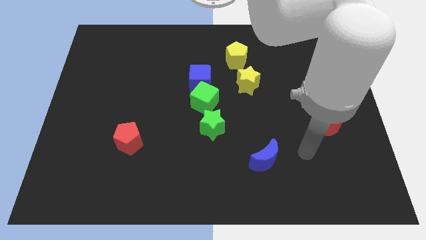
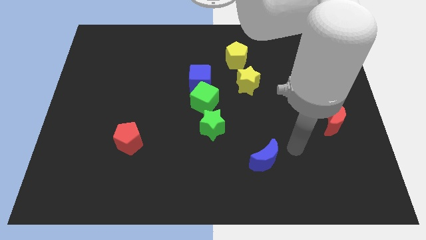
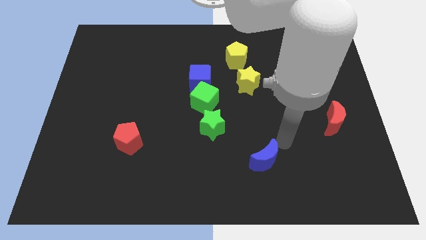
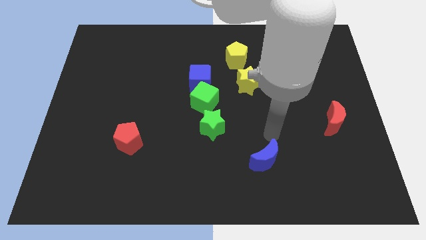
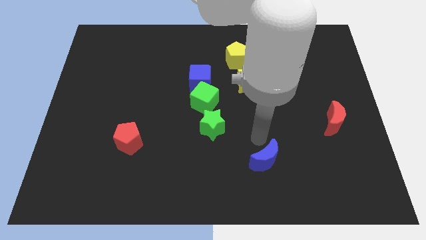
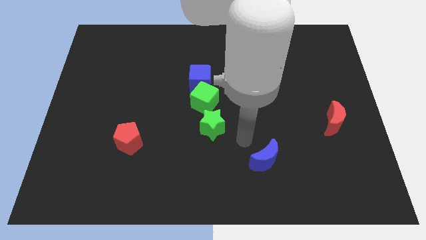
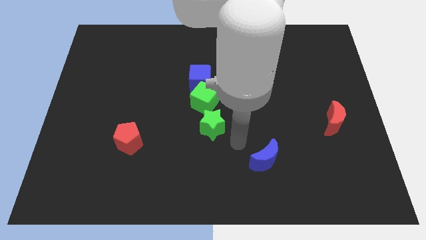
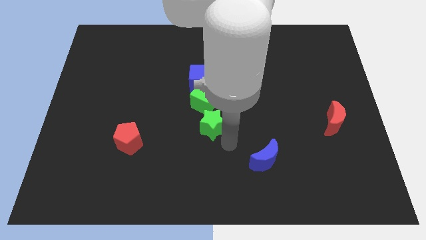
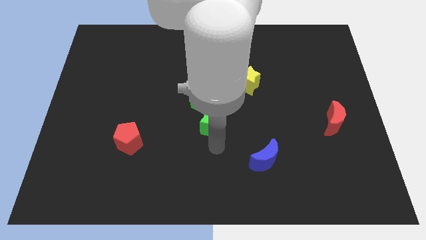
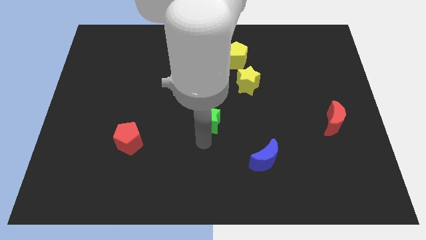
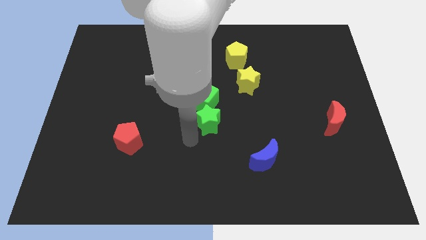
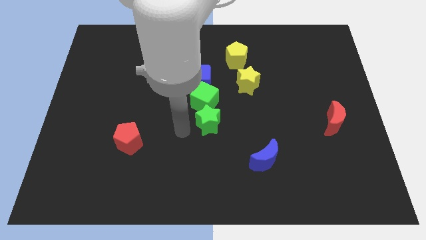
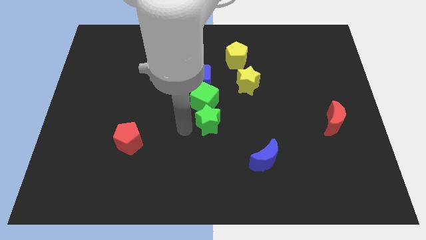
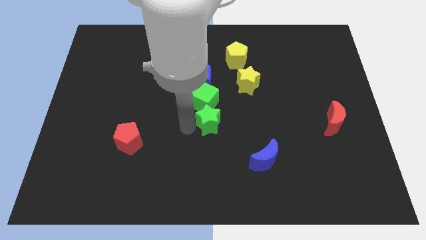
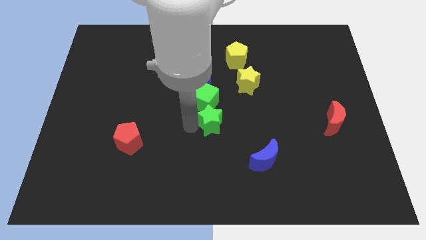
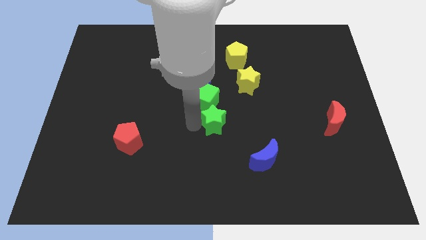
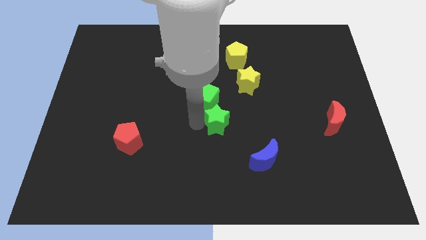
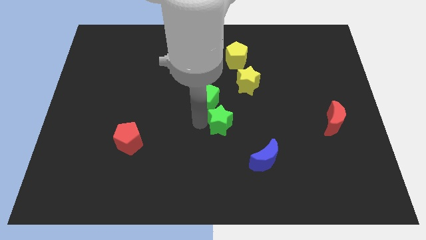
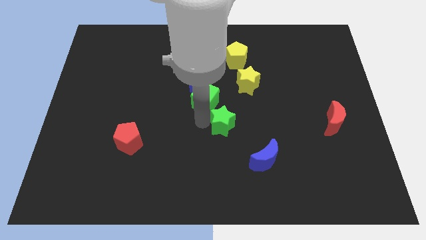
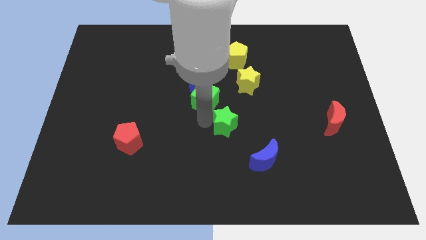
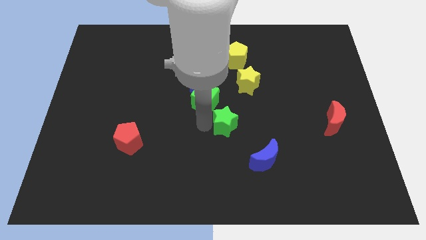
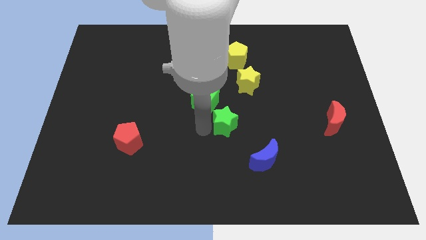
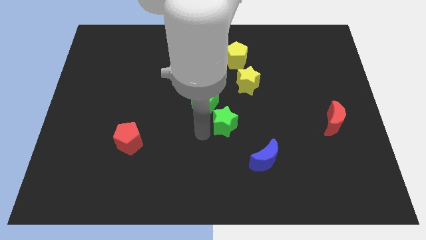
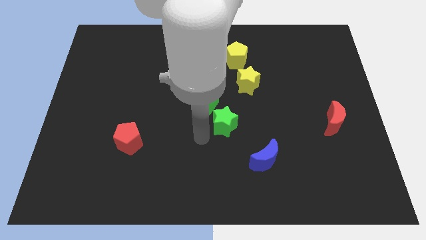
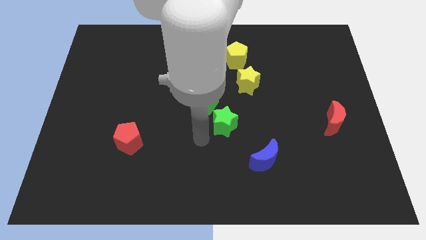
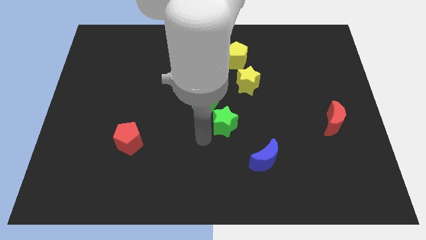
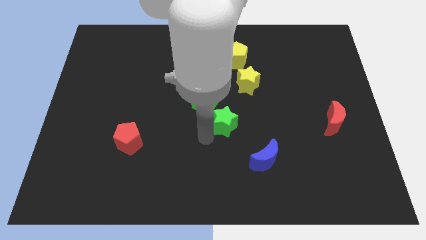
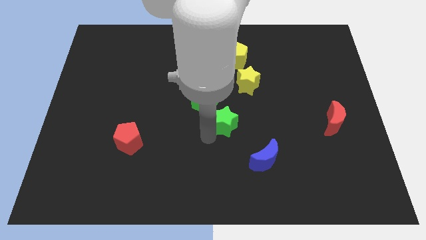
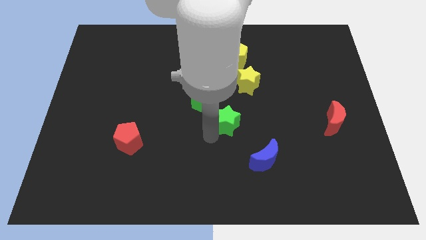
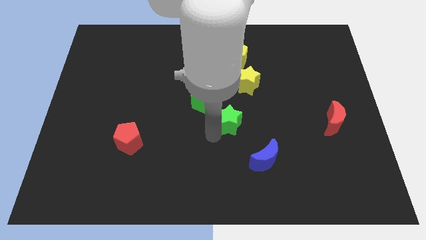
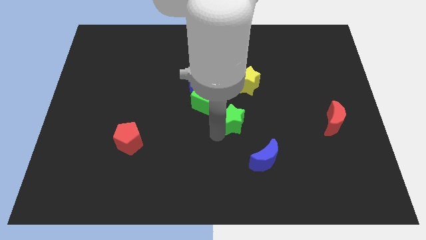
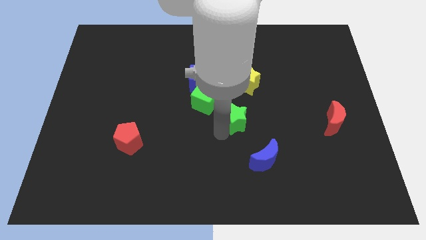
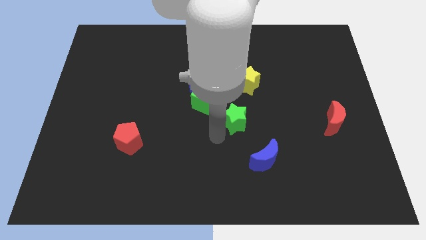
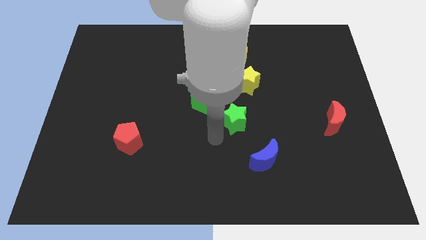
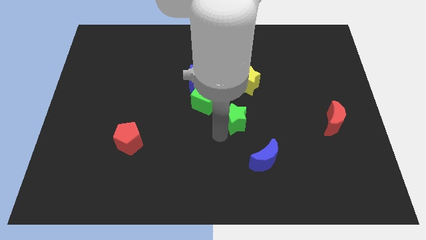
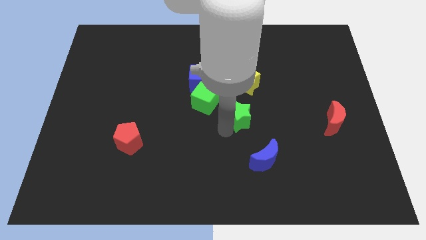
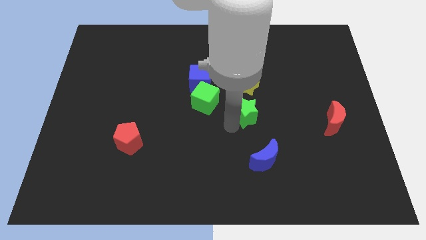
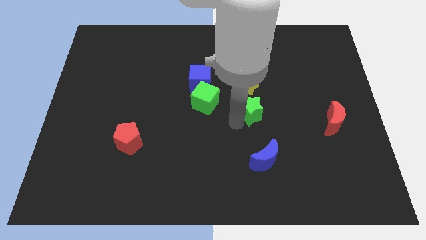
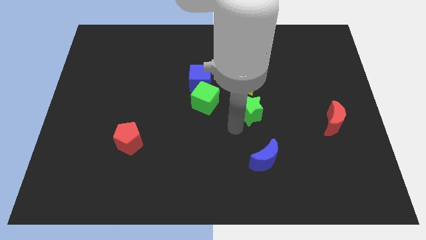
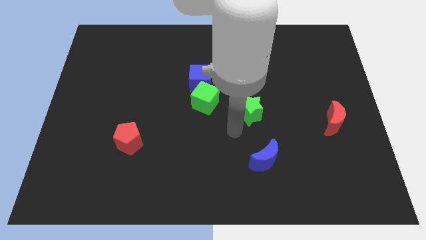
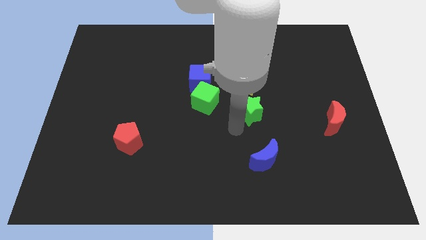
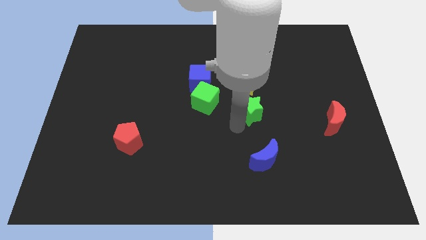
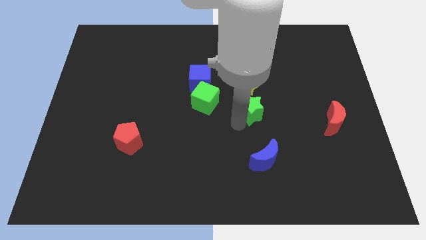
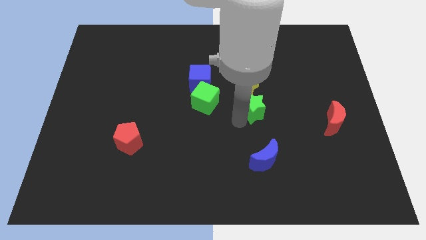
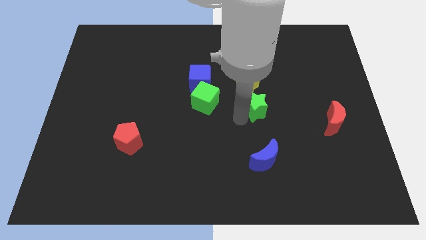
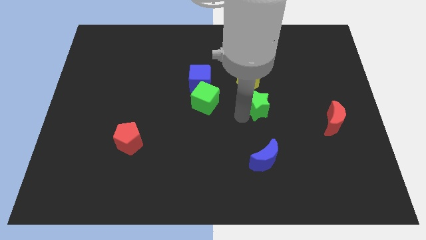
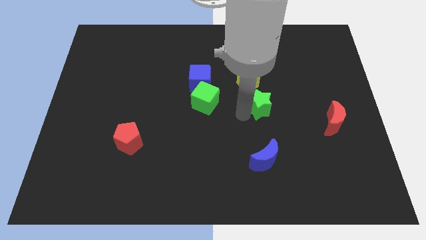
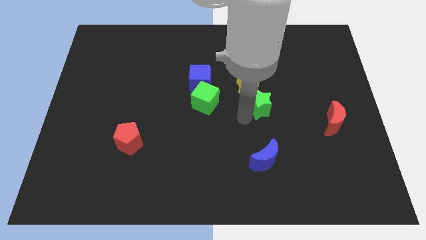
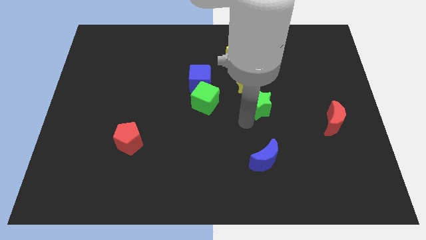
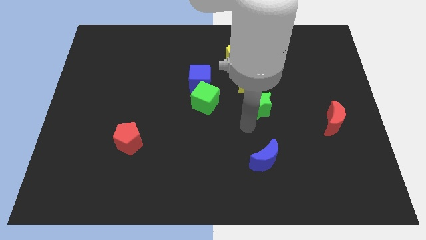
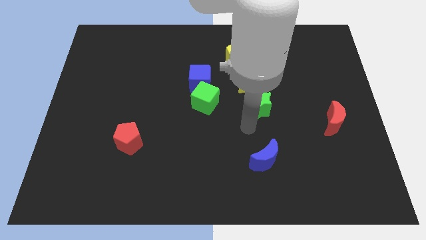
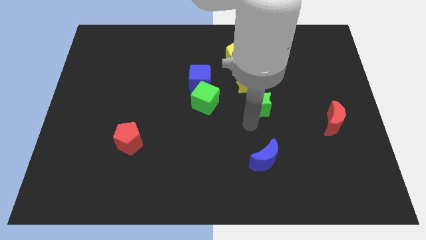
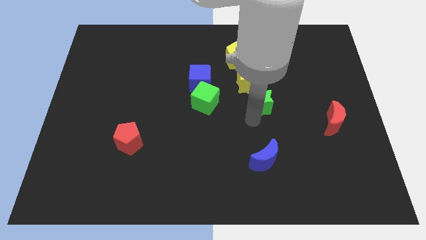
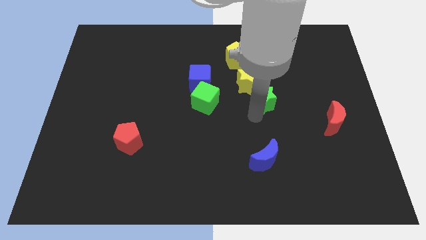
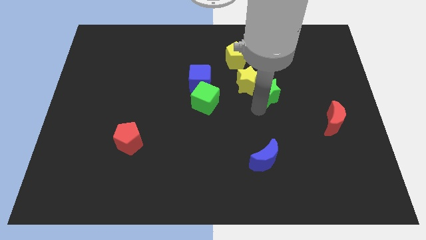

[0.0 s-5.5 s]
put the green star right of the yellow star

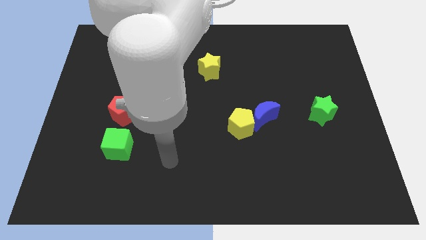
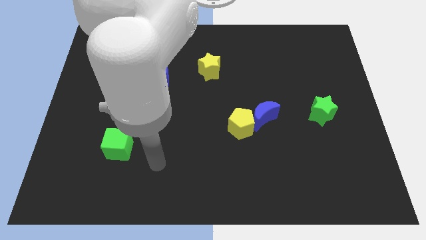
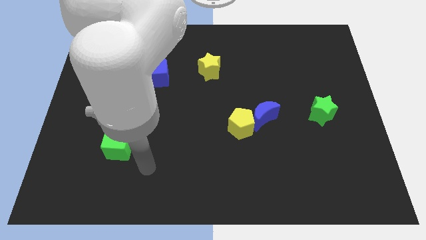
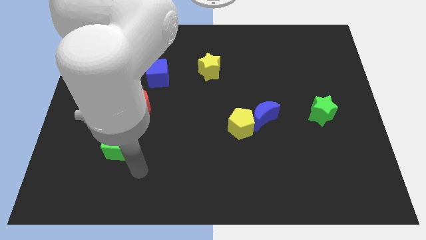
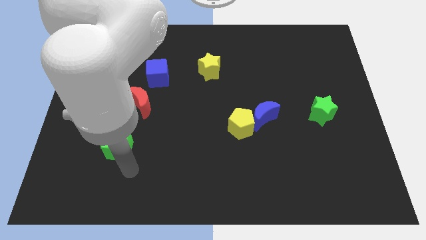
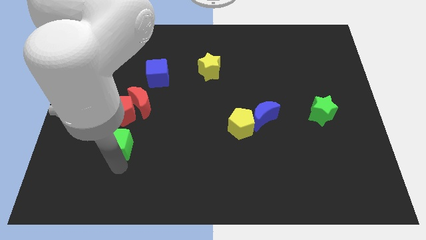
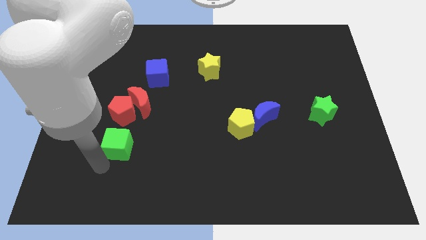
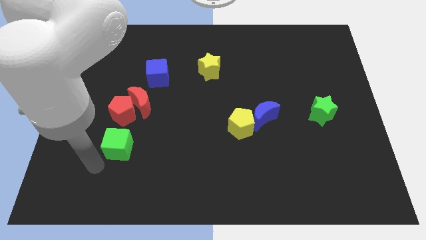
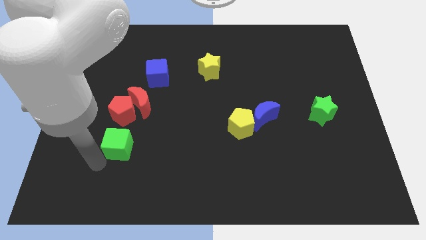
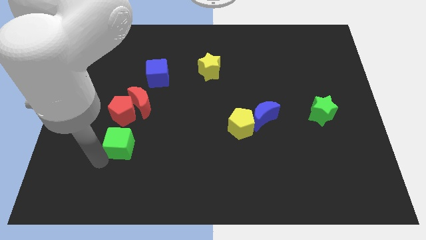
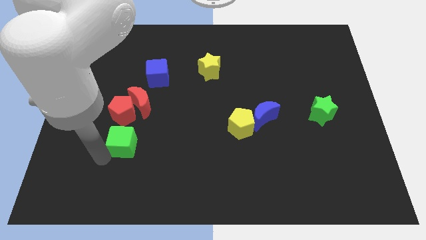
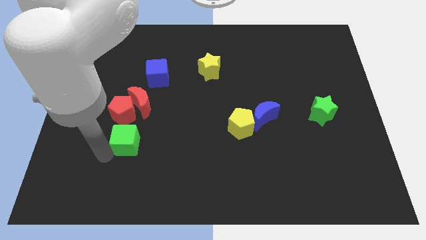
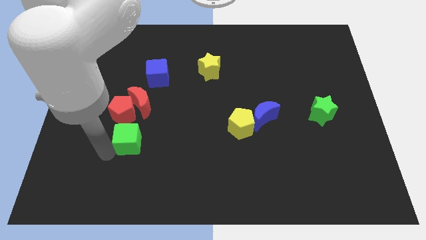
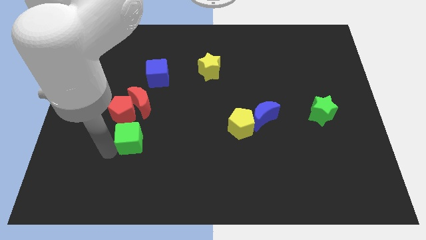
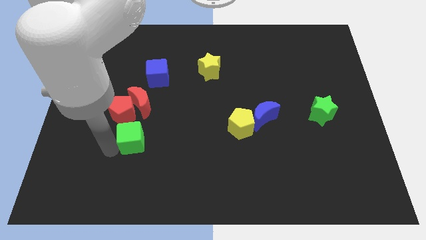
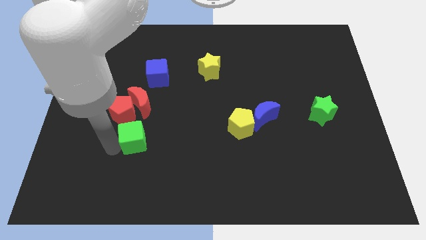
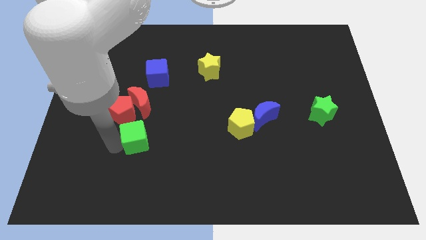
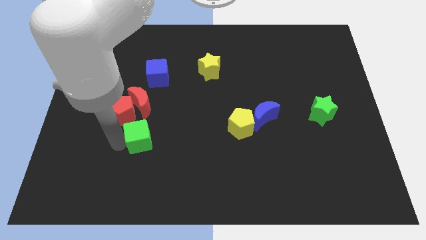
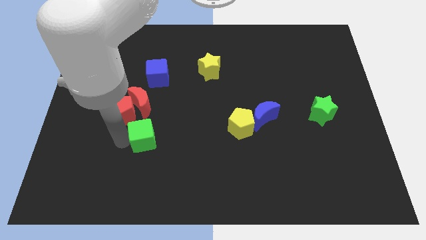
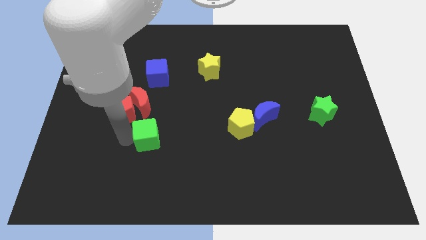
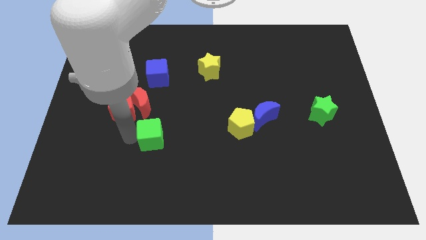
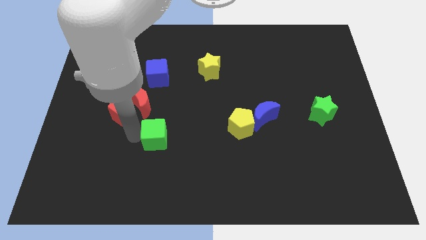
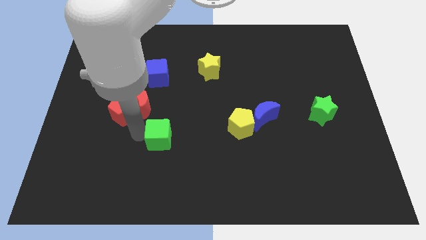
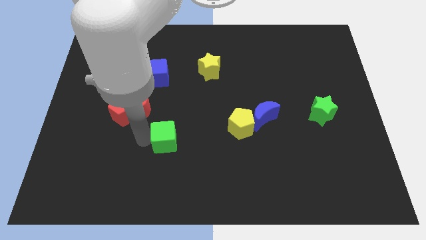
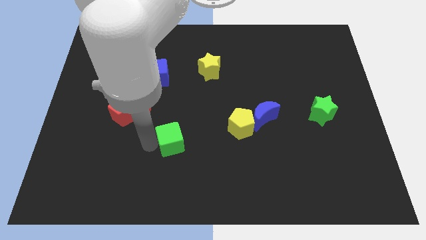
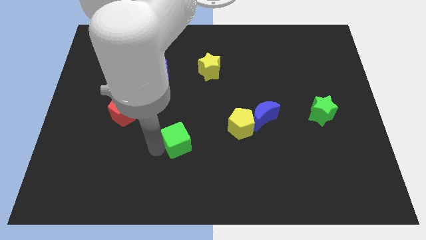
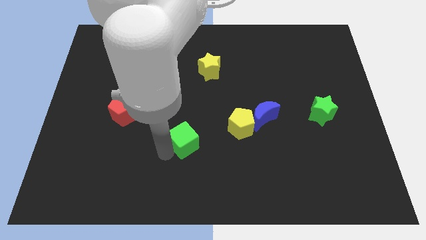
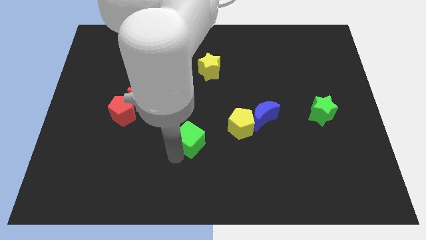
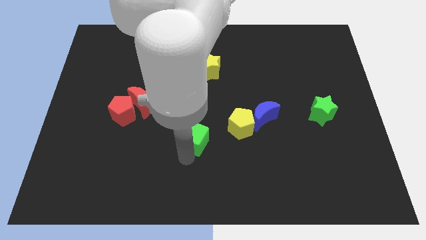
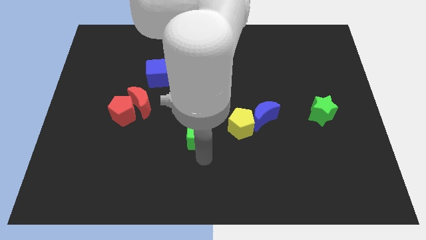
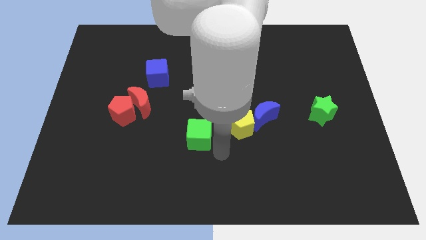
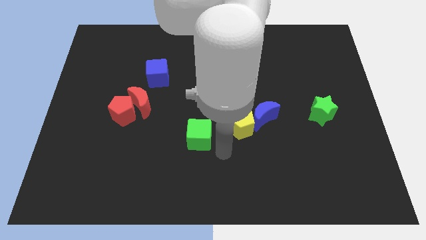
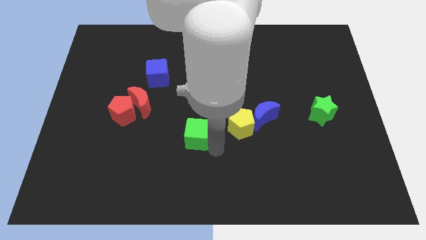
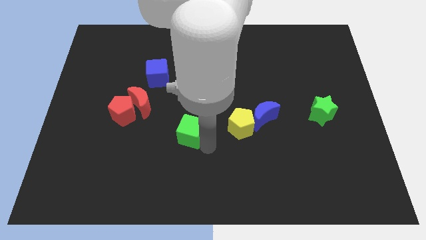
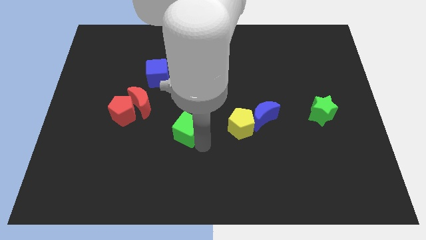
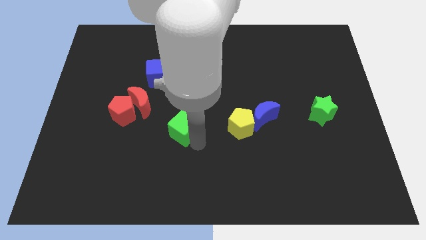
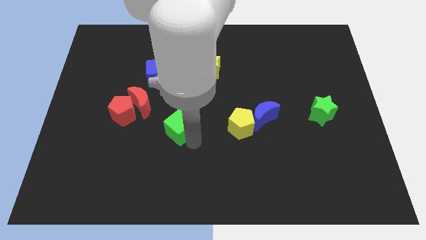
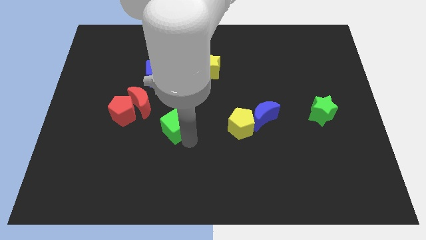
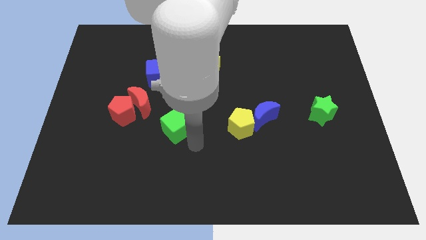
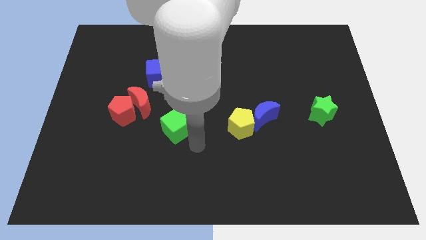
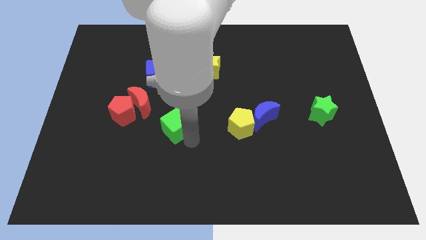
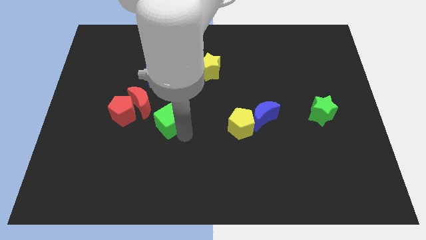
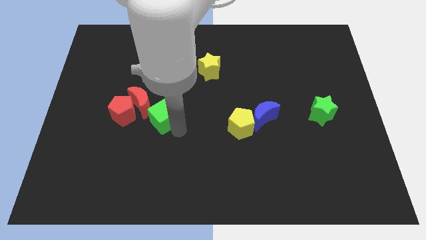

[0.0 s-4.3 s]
move the green cube below the blue cube
